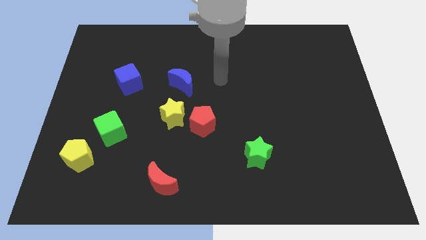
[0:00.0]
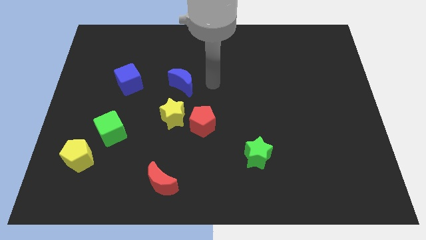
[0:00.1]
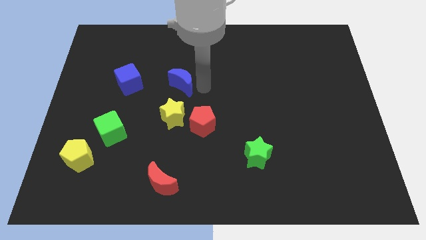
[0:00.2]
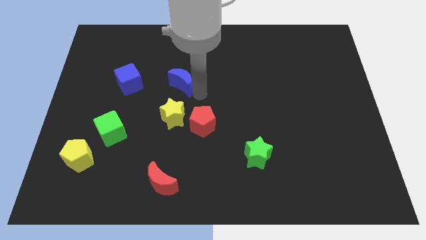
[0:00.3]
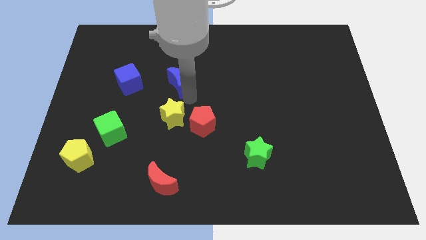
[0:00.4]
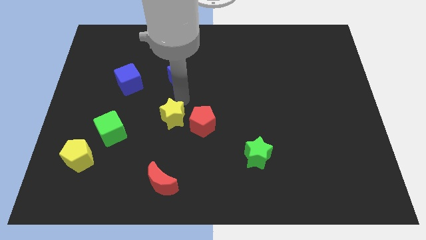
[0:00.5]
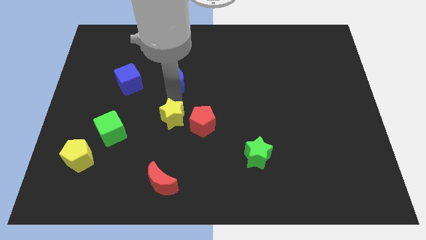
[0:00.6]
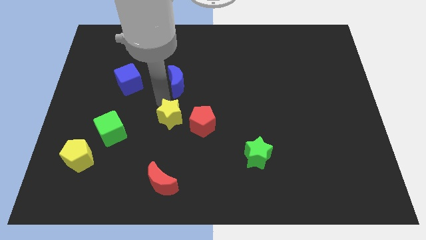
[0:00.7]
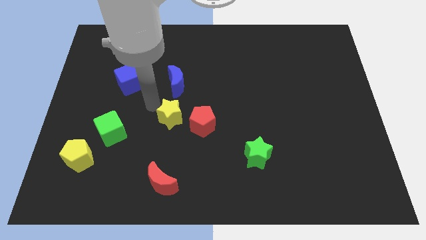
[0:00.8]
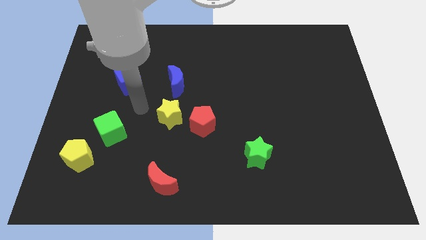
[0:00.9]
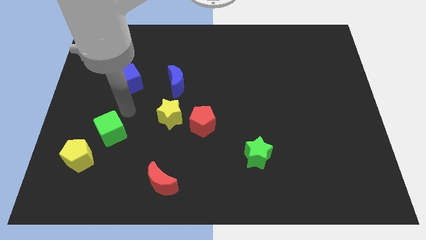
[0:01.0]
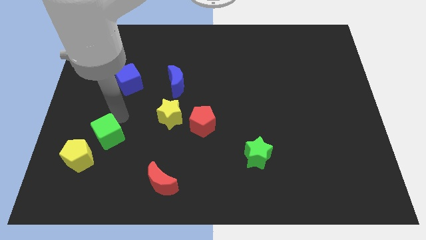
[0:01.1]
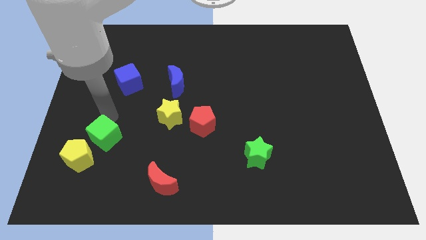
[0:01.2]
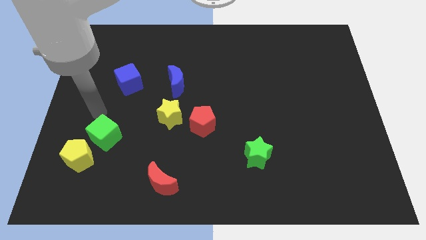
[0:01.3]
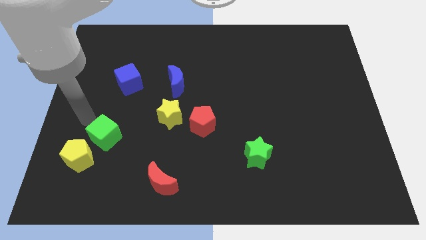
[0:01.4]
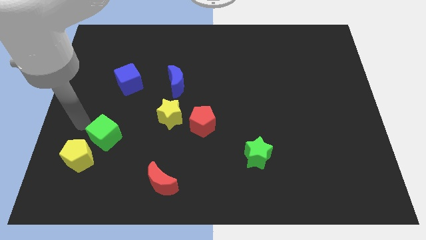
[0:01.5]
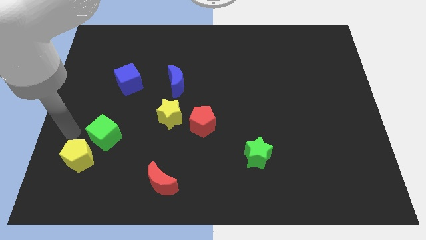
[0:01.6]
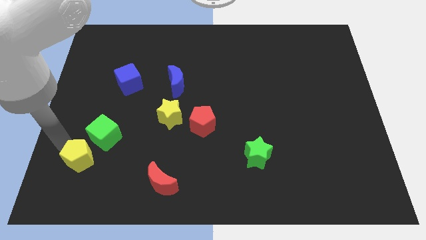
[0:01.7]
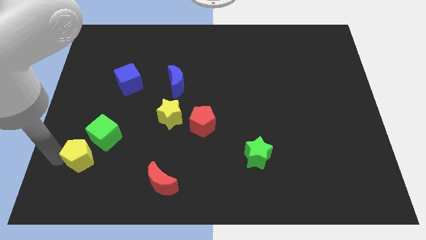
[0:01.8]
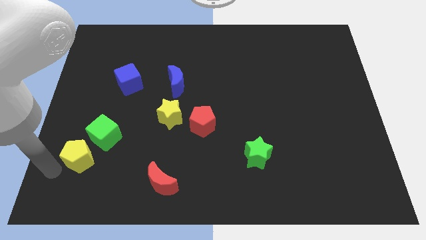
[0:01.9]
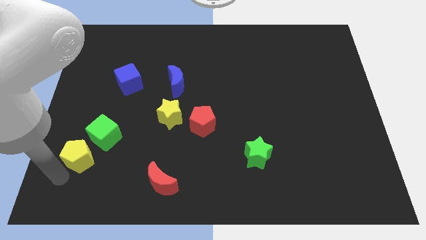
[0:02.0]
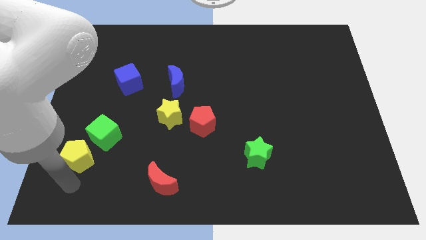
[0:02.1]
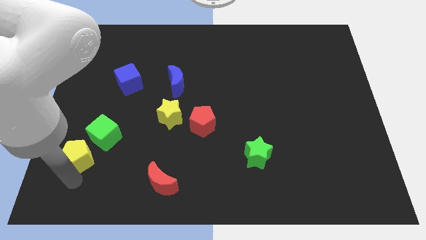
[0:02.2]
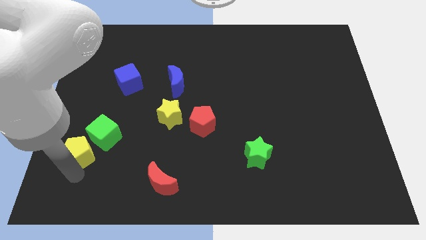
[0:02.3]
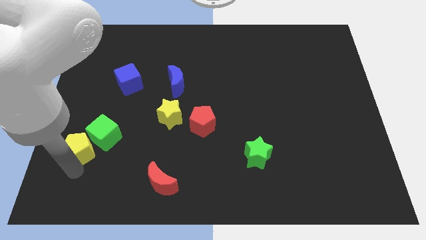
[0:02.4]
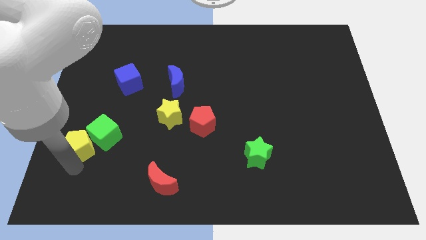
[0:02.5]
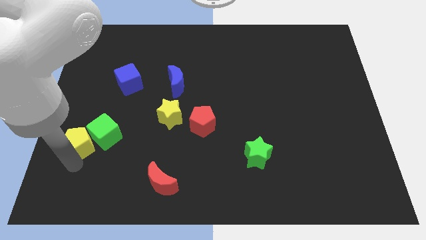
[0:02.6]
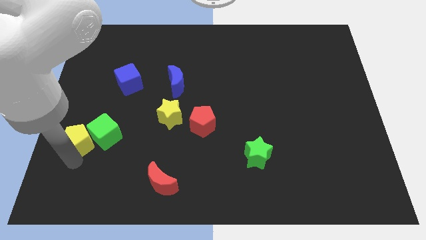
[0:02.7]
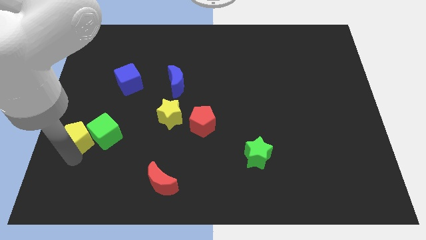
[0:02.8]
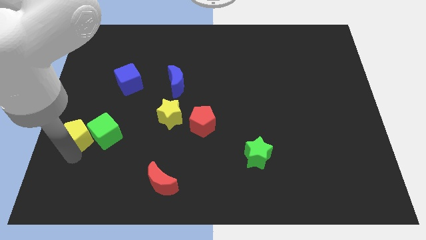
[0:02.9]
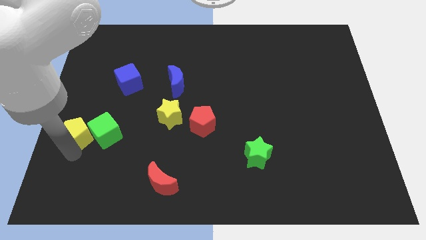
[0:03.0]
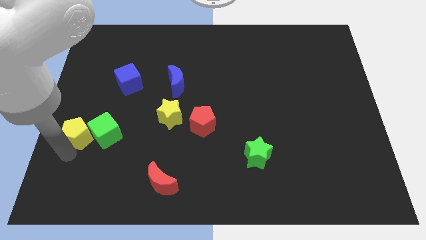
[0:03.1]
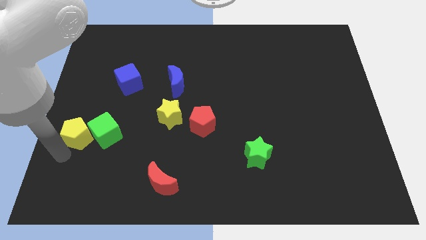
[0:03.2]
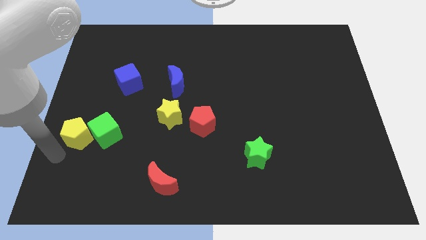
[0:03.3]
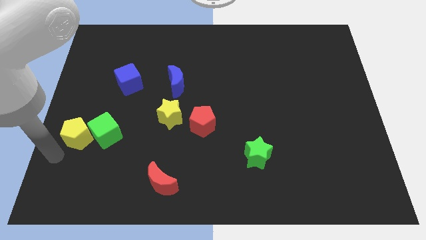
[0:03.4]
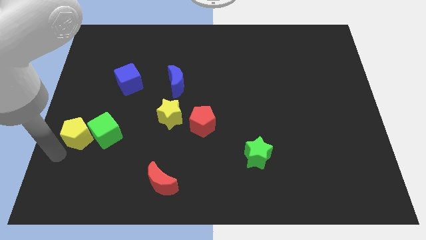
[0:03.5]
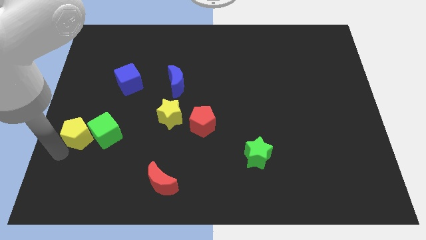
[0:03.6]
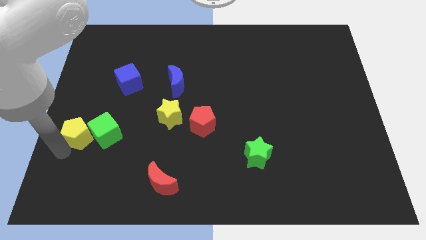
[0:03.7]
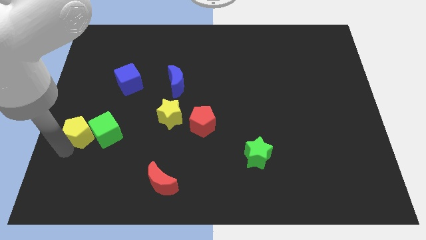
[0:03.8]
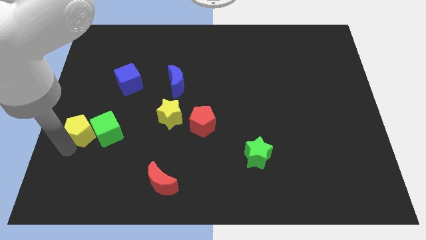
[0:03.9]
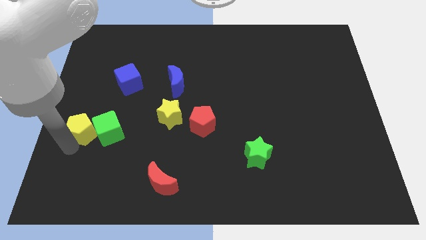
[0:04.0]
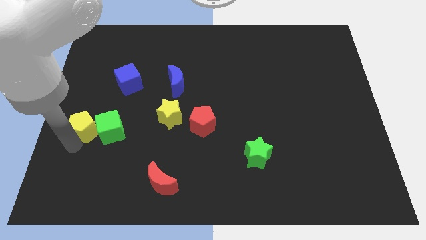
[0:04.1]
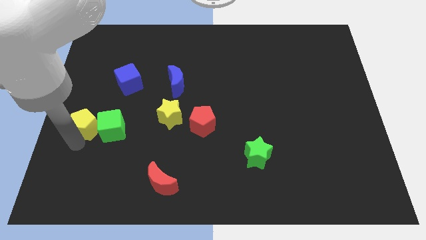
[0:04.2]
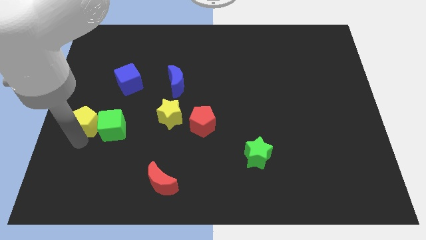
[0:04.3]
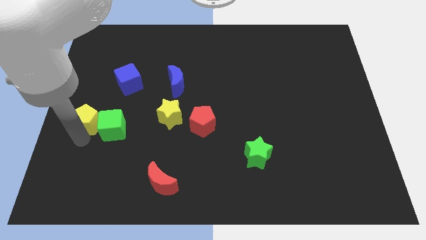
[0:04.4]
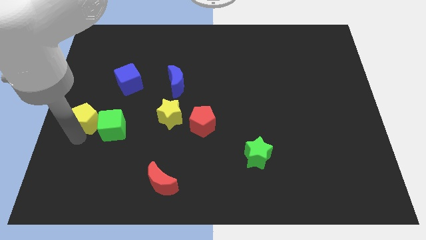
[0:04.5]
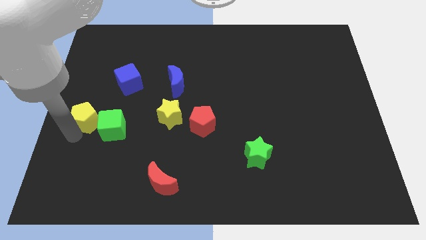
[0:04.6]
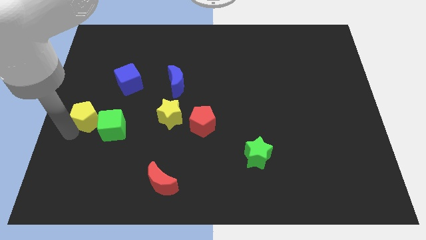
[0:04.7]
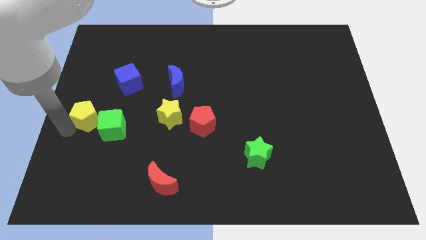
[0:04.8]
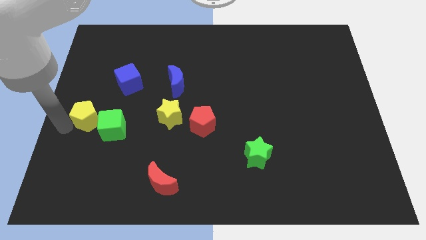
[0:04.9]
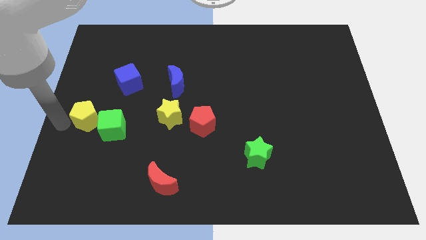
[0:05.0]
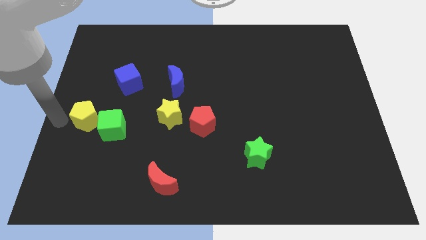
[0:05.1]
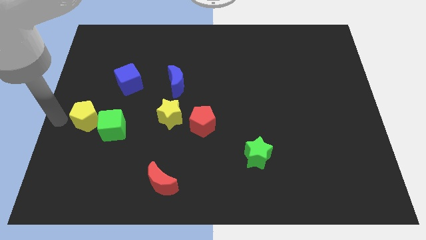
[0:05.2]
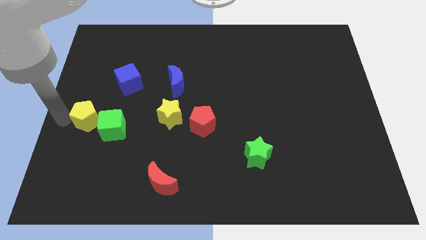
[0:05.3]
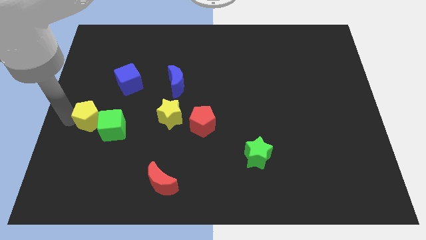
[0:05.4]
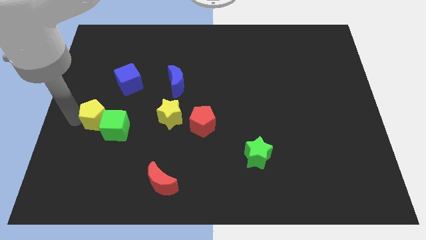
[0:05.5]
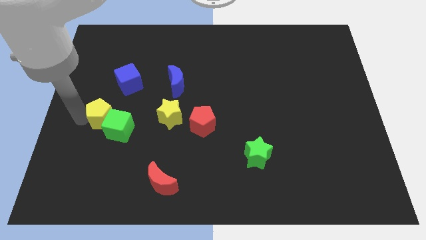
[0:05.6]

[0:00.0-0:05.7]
put the yellow pentagon to the left side of the yellow star

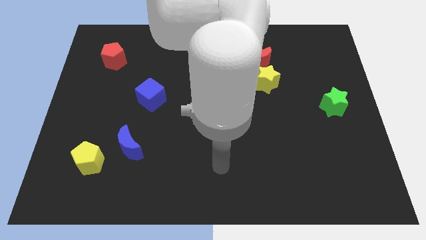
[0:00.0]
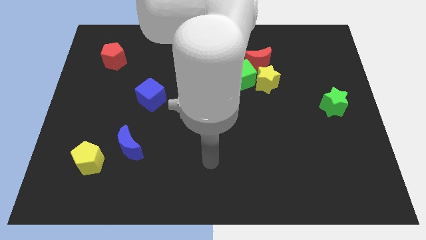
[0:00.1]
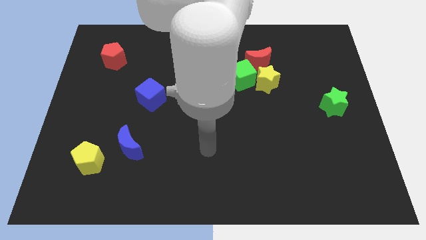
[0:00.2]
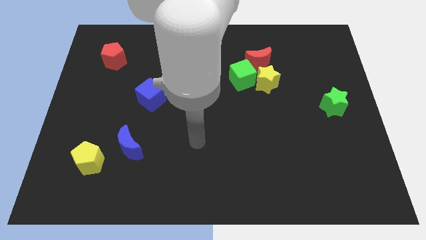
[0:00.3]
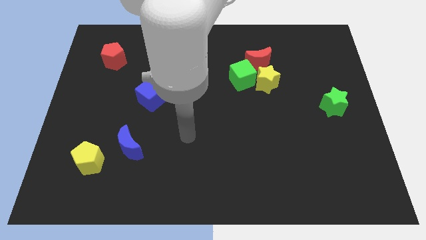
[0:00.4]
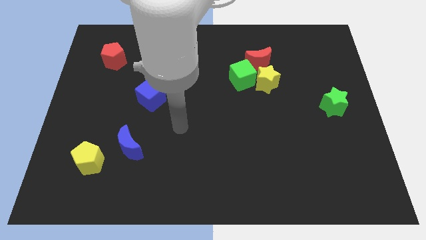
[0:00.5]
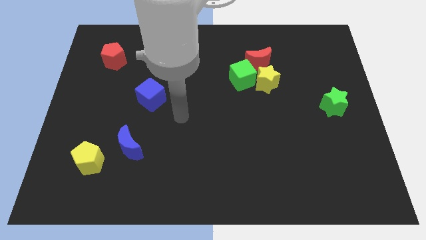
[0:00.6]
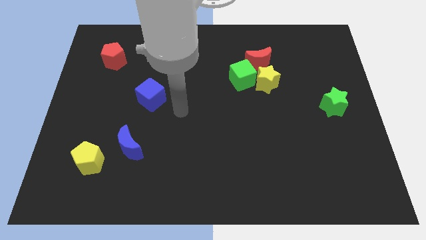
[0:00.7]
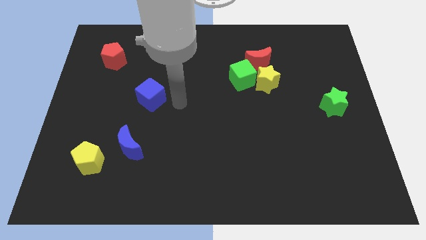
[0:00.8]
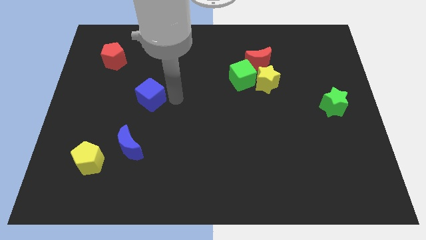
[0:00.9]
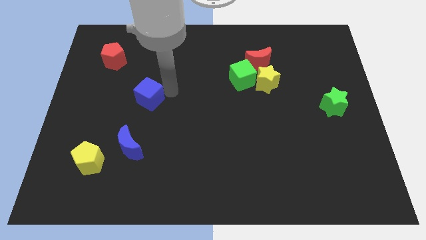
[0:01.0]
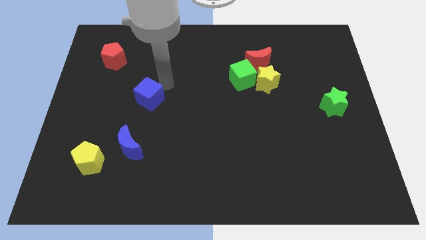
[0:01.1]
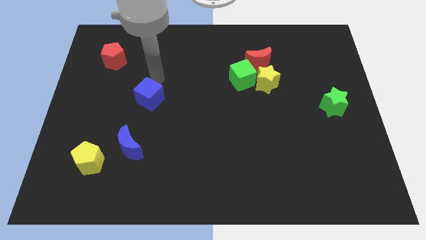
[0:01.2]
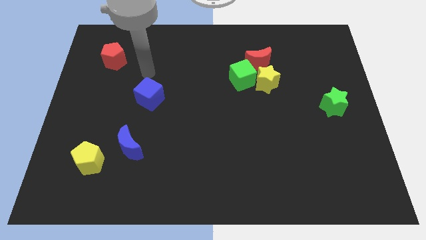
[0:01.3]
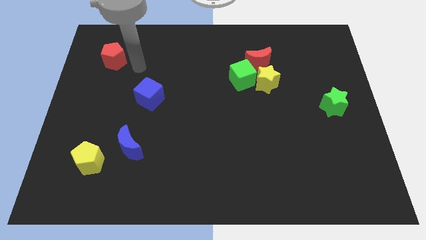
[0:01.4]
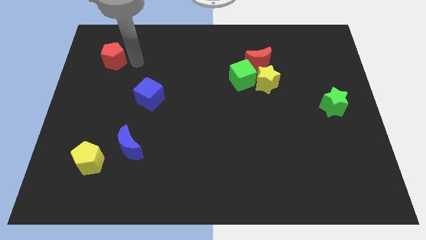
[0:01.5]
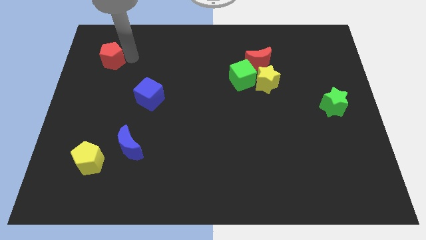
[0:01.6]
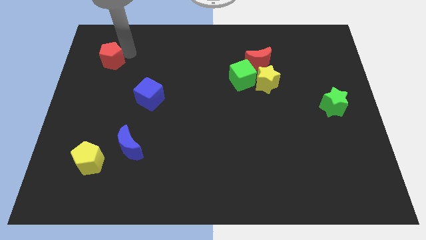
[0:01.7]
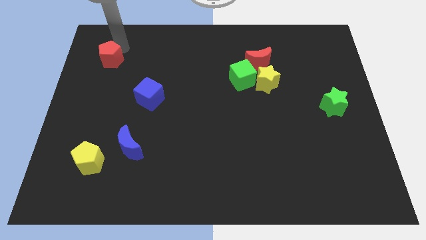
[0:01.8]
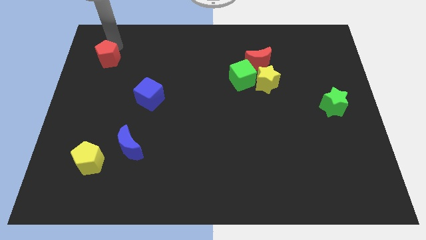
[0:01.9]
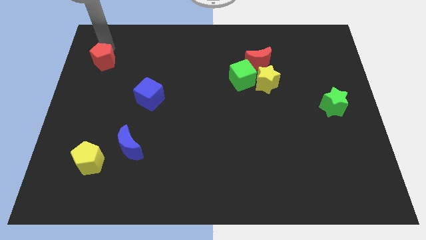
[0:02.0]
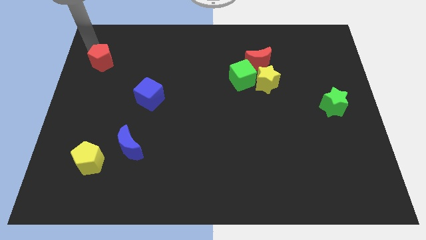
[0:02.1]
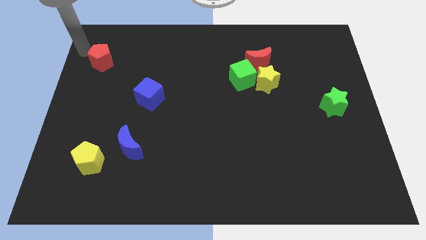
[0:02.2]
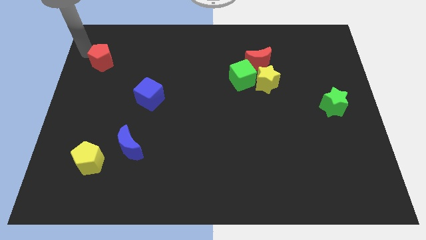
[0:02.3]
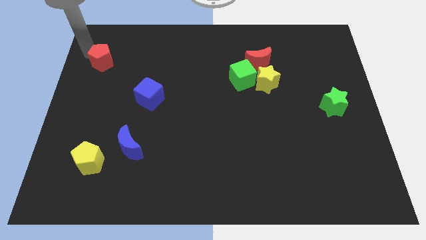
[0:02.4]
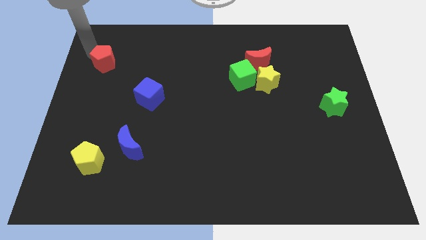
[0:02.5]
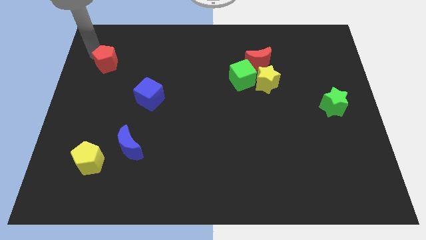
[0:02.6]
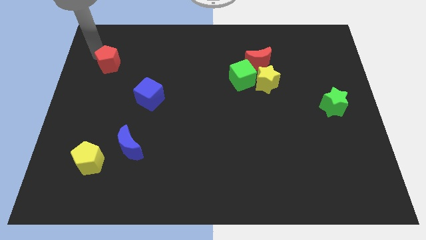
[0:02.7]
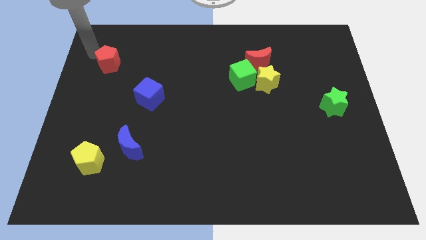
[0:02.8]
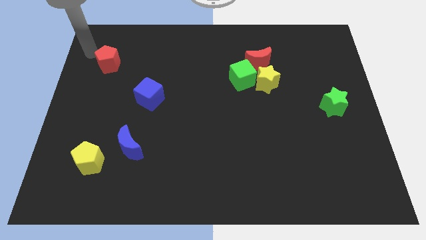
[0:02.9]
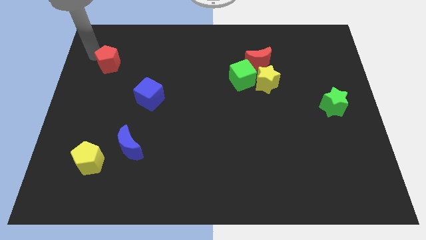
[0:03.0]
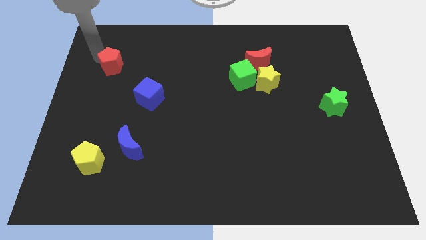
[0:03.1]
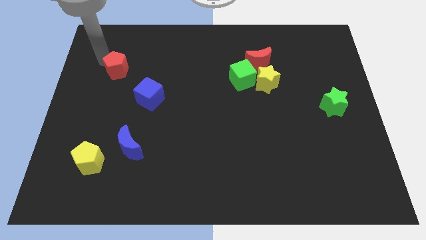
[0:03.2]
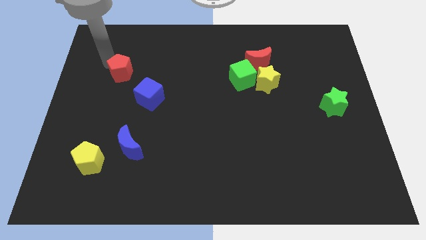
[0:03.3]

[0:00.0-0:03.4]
push the red pentagon to the top left of the blue cube
